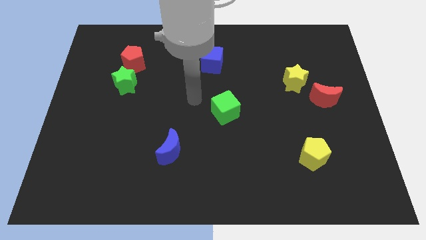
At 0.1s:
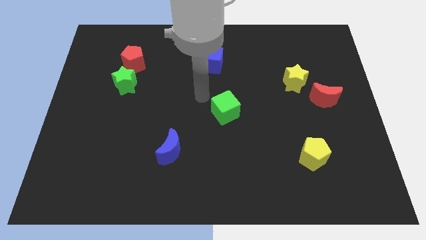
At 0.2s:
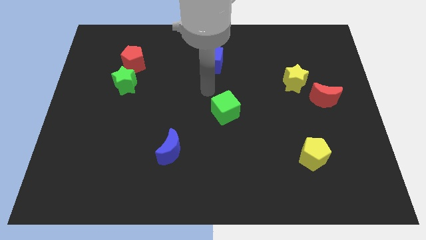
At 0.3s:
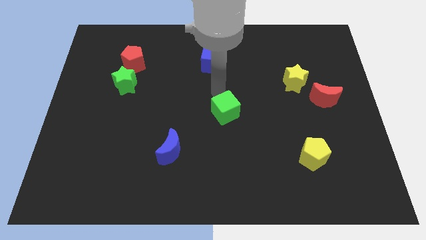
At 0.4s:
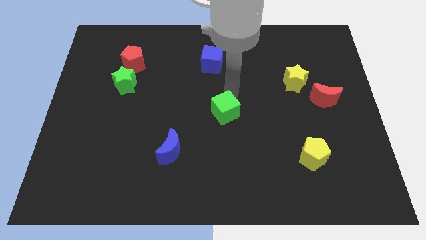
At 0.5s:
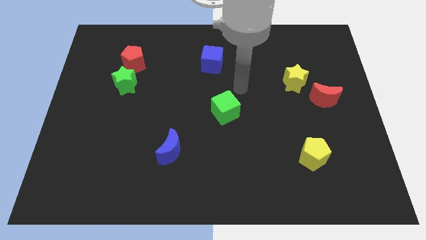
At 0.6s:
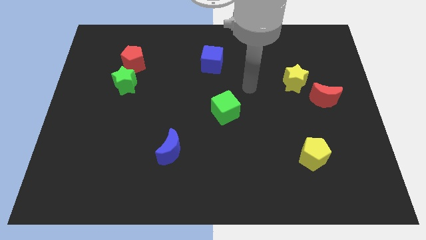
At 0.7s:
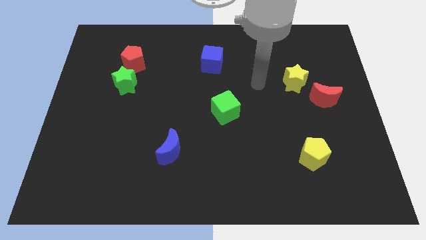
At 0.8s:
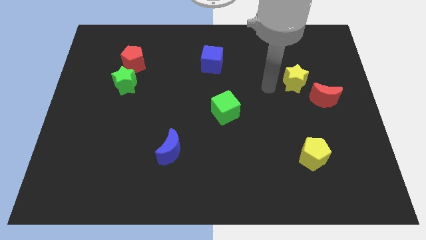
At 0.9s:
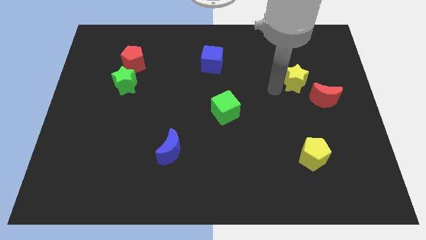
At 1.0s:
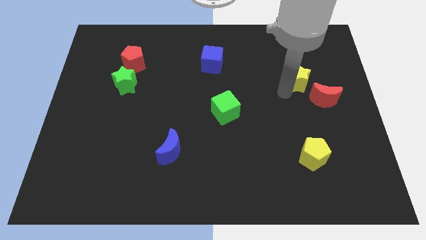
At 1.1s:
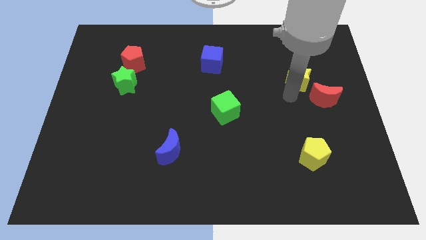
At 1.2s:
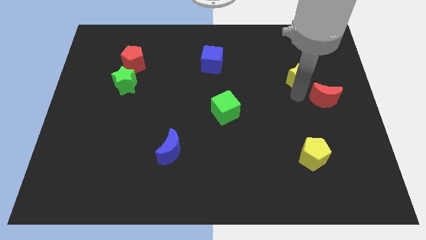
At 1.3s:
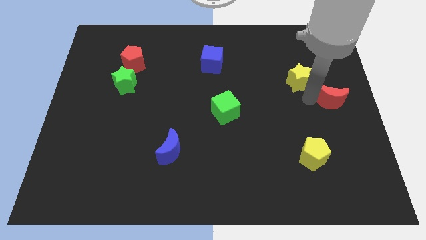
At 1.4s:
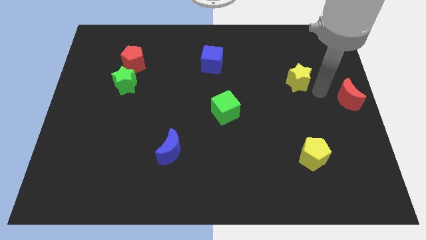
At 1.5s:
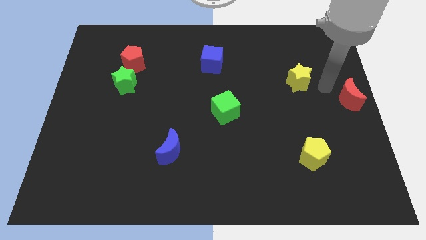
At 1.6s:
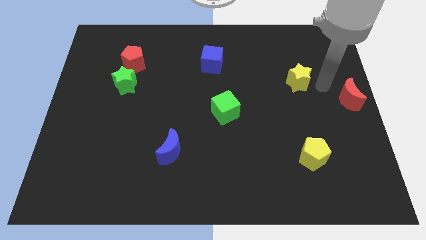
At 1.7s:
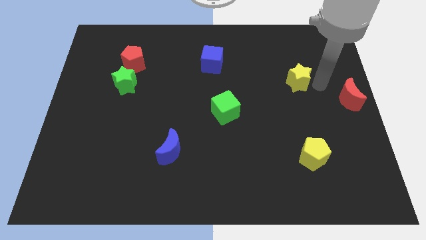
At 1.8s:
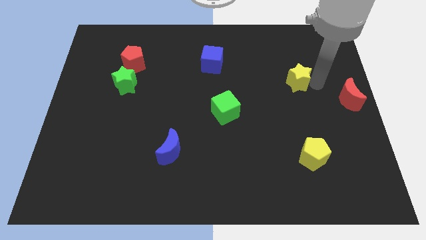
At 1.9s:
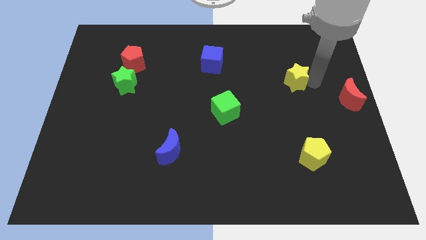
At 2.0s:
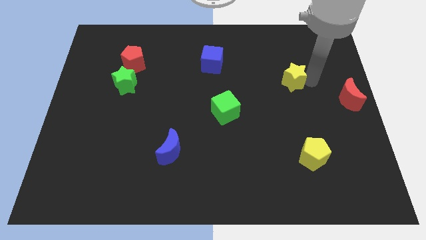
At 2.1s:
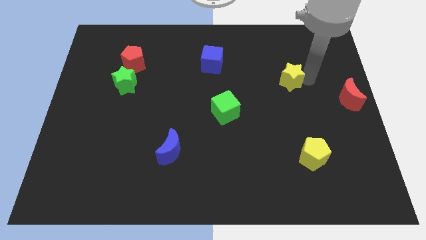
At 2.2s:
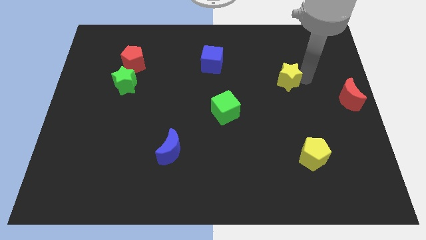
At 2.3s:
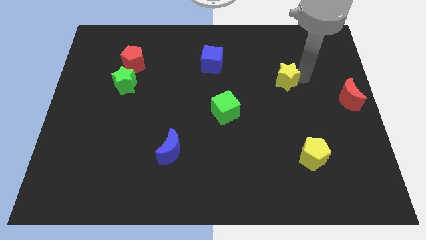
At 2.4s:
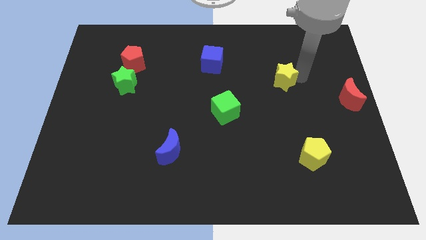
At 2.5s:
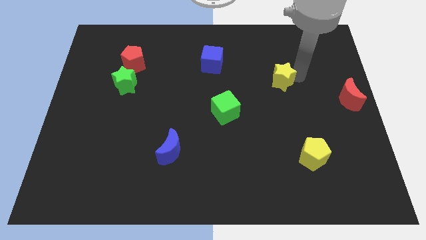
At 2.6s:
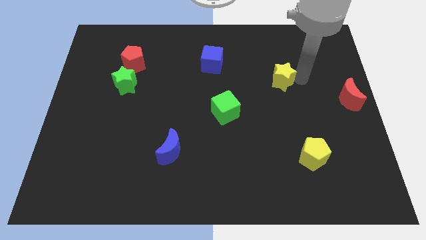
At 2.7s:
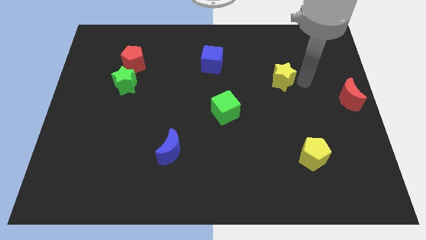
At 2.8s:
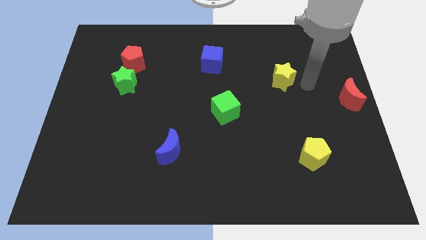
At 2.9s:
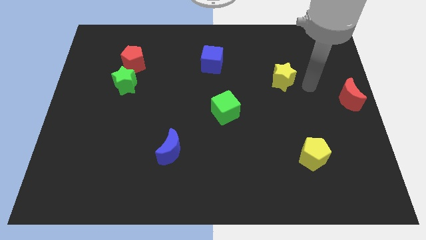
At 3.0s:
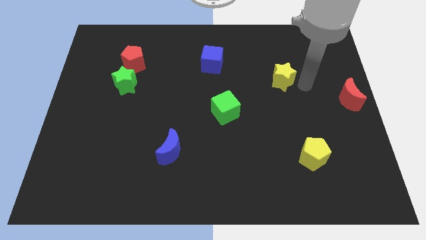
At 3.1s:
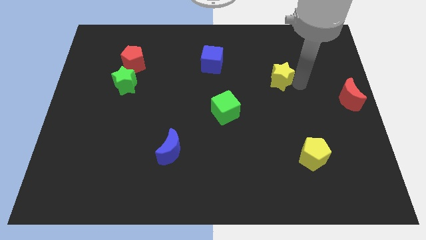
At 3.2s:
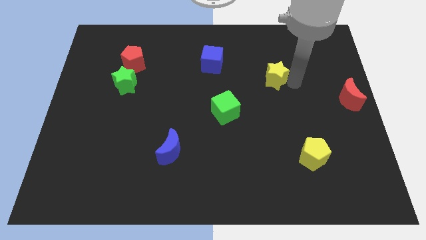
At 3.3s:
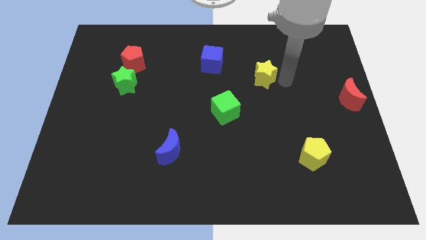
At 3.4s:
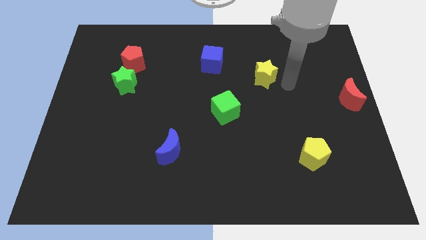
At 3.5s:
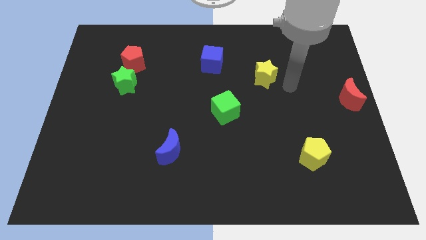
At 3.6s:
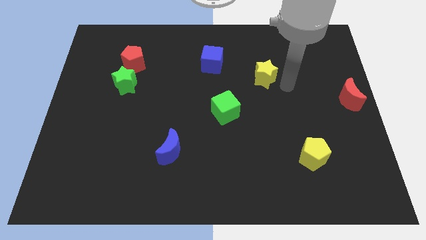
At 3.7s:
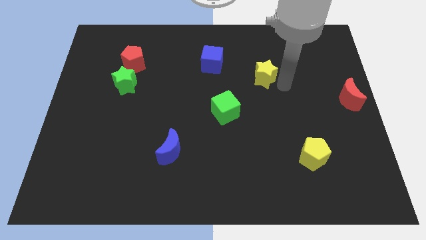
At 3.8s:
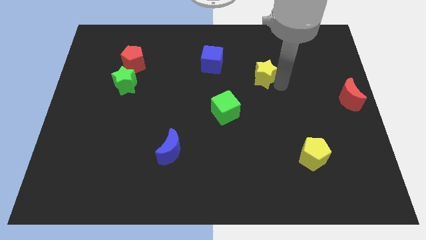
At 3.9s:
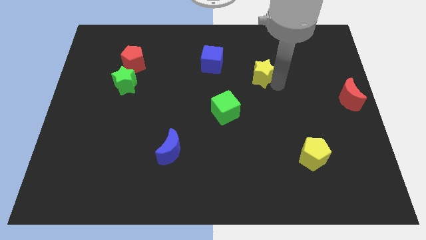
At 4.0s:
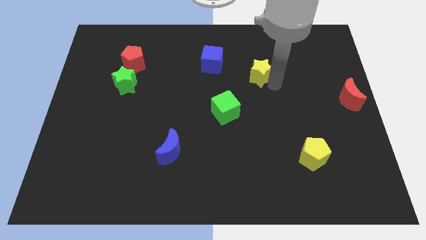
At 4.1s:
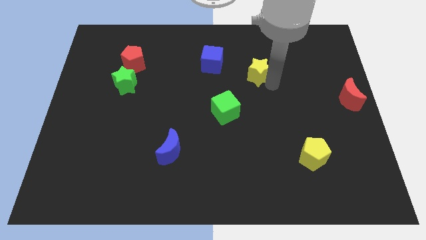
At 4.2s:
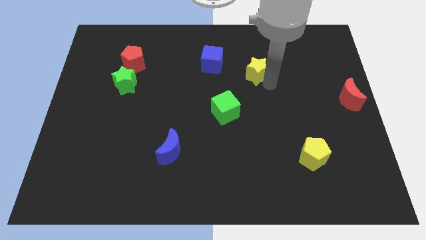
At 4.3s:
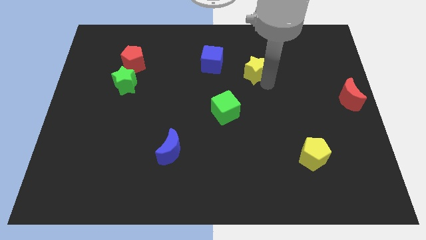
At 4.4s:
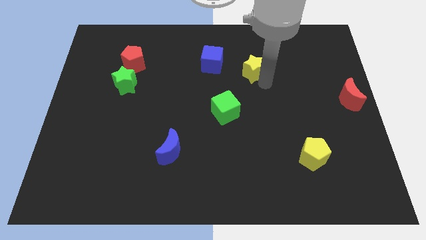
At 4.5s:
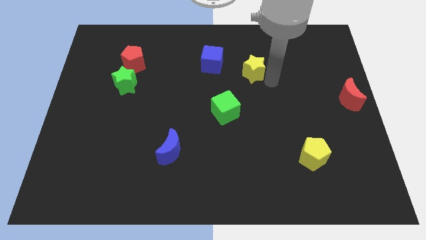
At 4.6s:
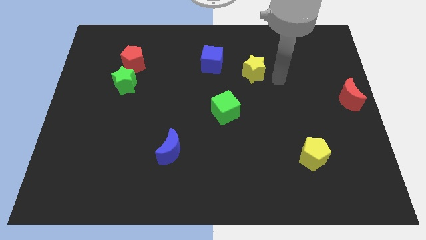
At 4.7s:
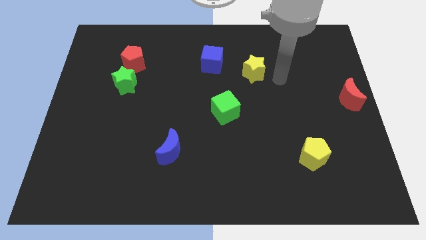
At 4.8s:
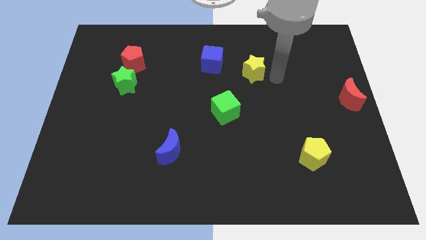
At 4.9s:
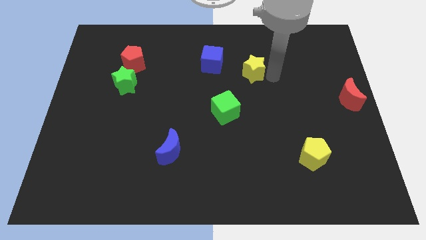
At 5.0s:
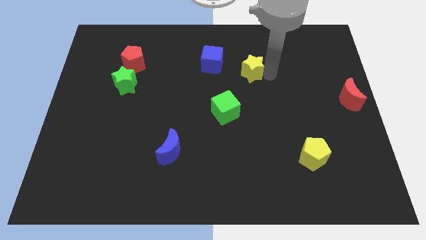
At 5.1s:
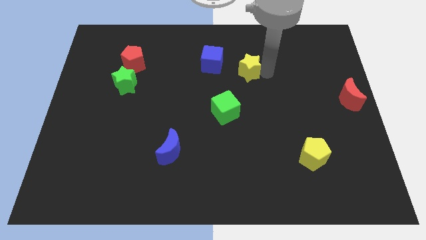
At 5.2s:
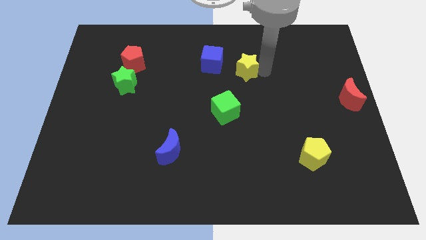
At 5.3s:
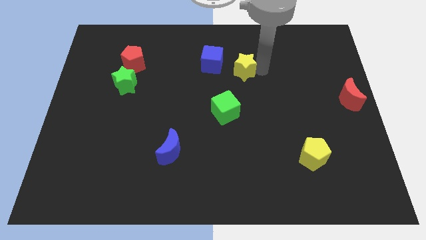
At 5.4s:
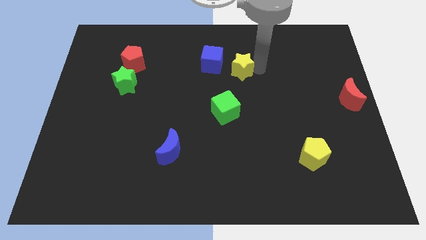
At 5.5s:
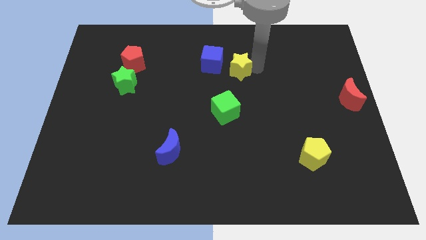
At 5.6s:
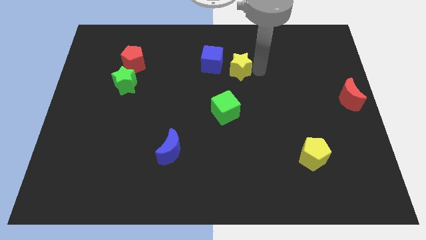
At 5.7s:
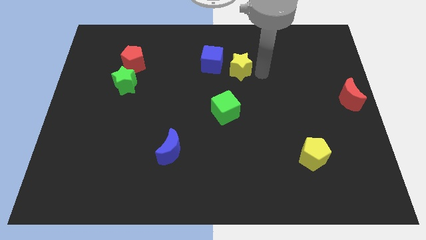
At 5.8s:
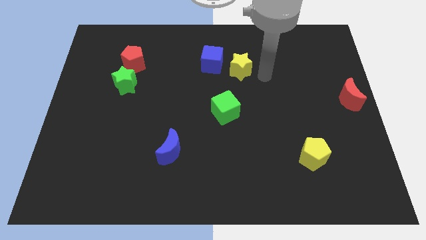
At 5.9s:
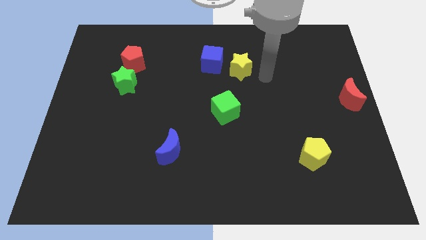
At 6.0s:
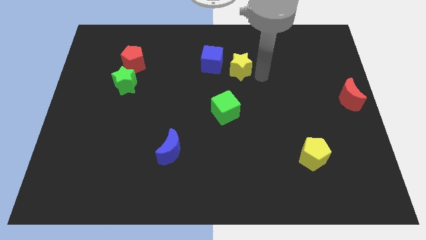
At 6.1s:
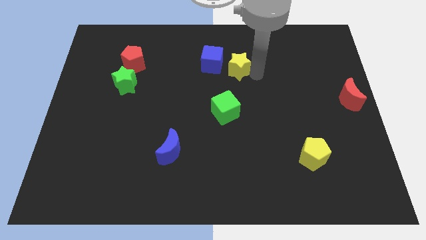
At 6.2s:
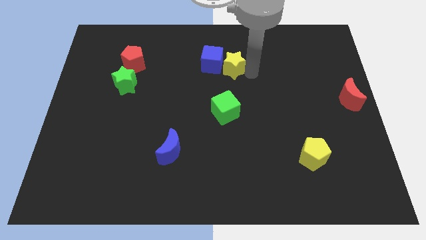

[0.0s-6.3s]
put the yellow star next to the blue cube

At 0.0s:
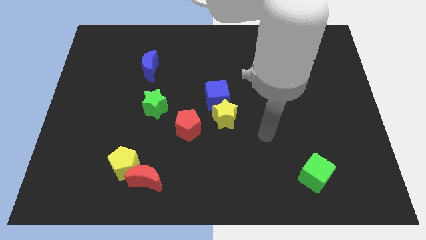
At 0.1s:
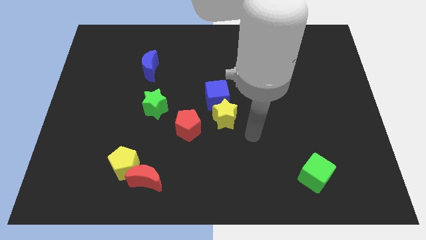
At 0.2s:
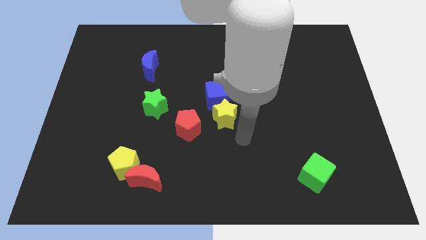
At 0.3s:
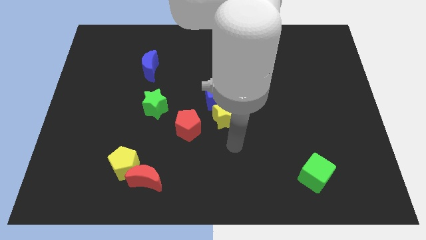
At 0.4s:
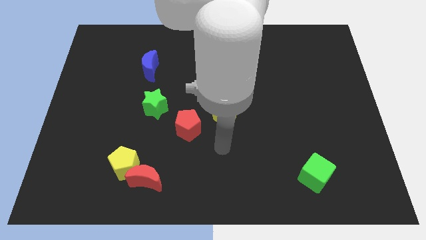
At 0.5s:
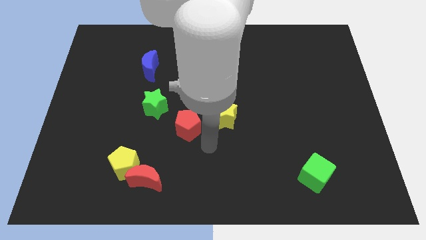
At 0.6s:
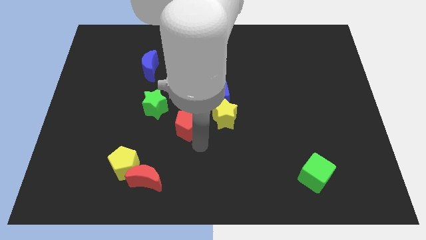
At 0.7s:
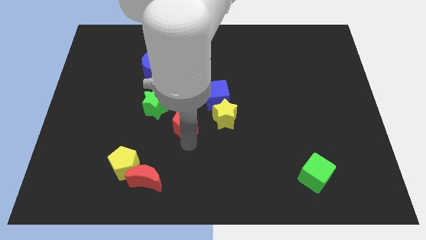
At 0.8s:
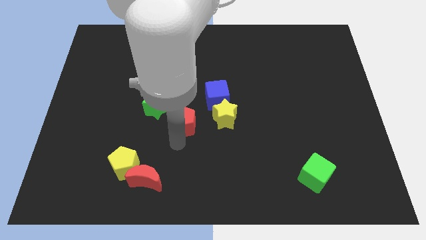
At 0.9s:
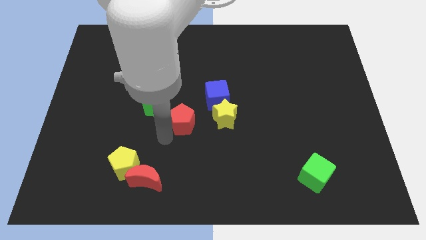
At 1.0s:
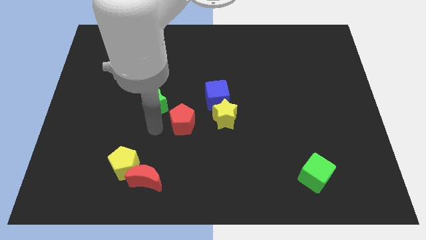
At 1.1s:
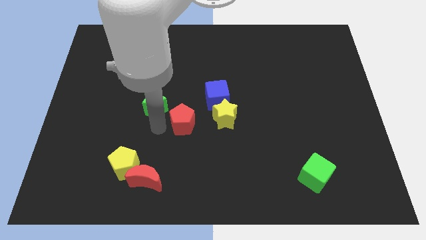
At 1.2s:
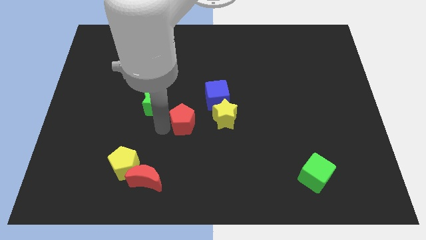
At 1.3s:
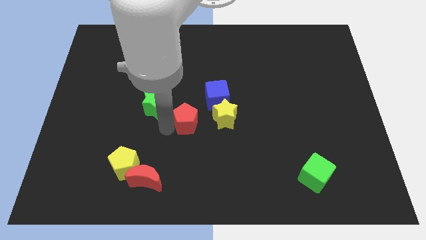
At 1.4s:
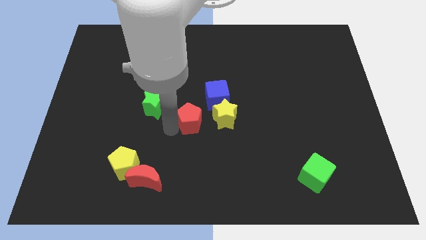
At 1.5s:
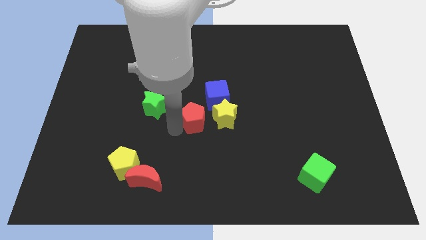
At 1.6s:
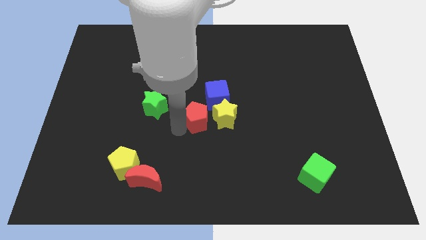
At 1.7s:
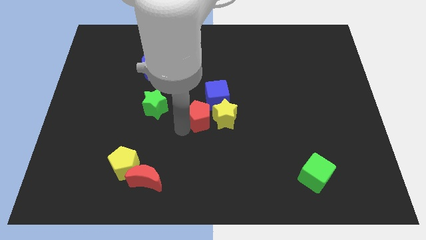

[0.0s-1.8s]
put the red pentagon close to the yellow star
